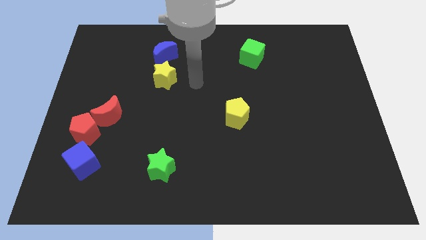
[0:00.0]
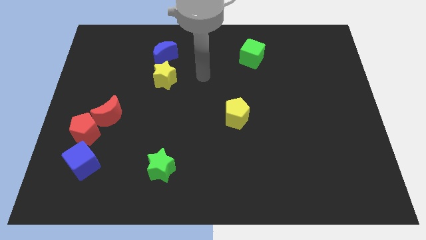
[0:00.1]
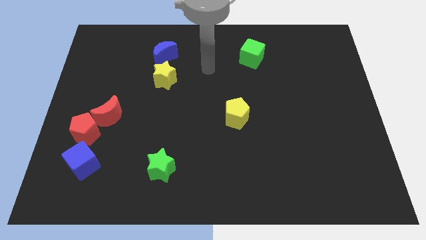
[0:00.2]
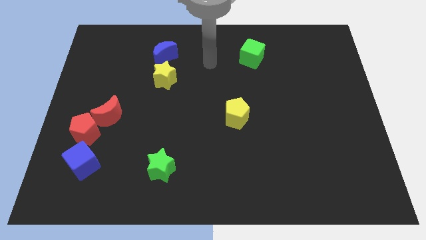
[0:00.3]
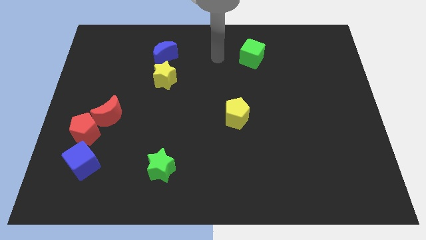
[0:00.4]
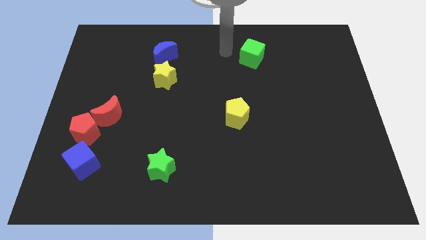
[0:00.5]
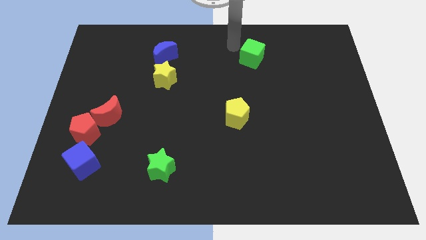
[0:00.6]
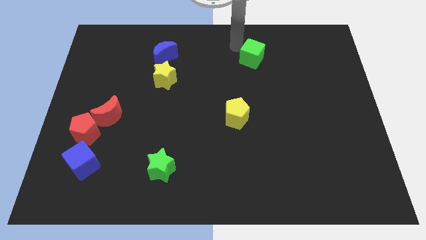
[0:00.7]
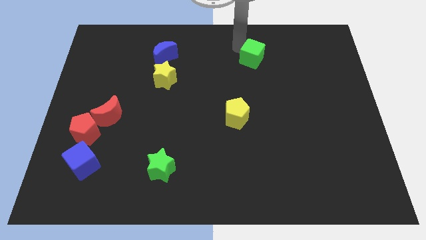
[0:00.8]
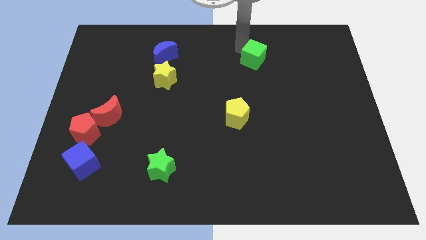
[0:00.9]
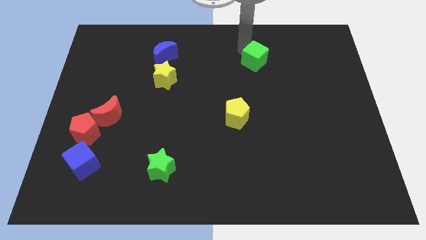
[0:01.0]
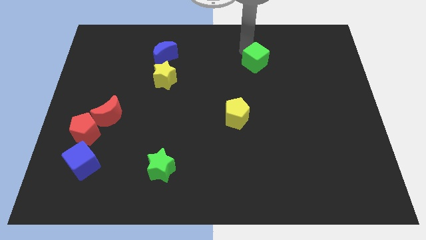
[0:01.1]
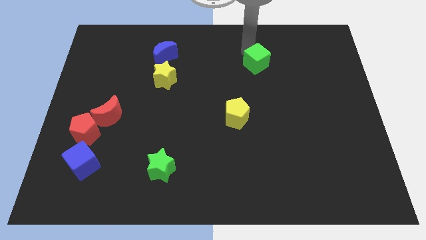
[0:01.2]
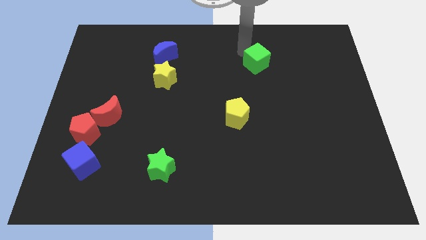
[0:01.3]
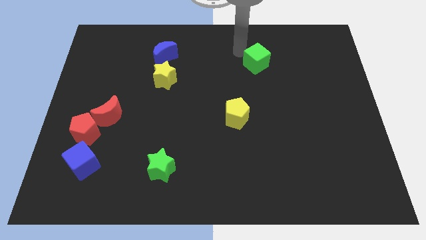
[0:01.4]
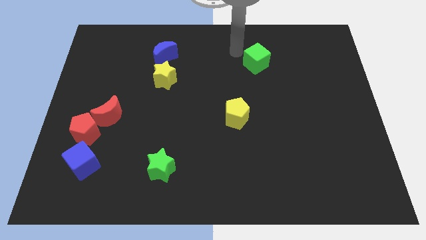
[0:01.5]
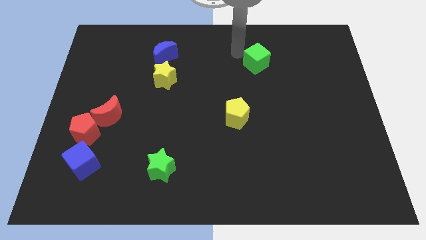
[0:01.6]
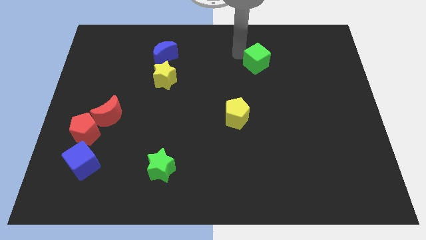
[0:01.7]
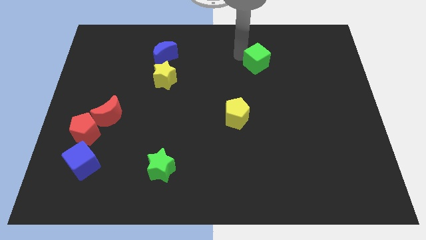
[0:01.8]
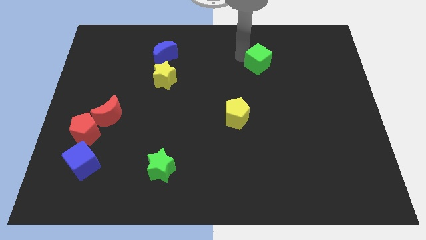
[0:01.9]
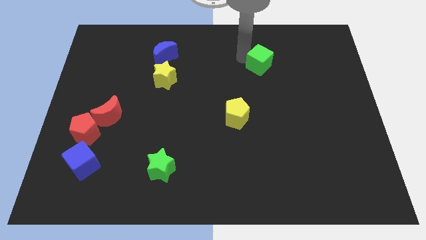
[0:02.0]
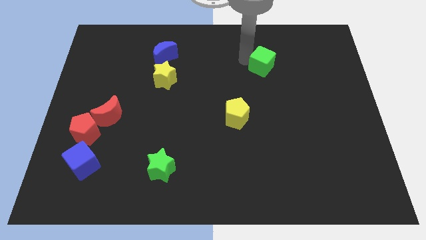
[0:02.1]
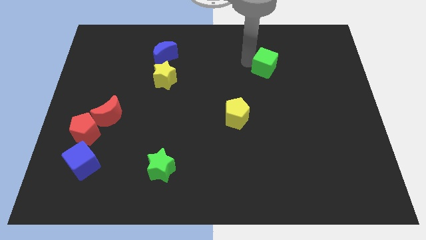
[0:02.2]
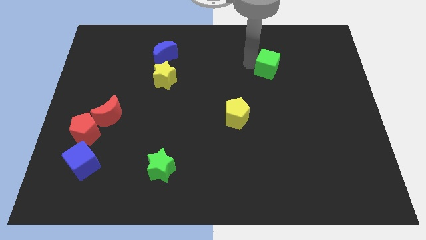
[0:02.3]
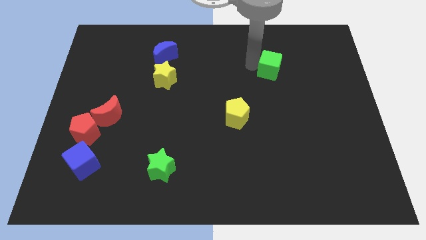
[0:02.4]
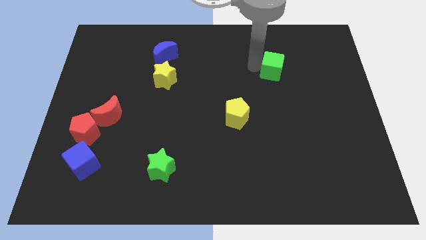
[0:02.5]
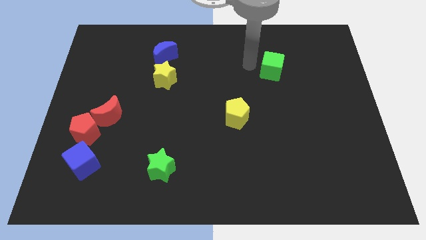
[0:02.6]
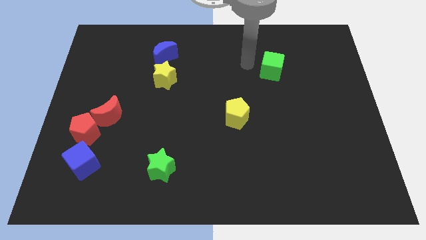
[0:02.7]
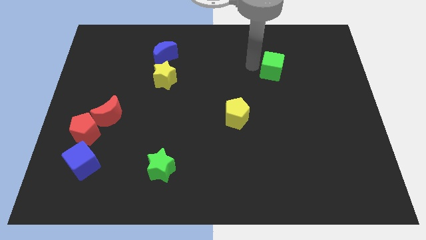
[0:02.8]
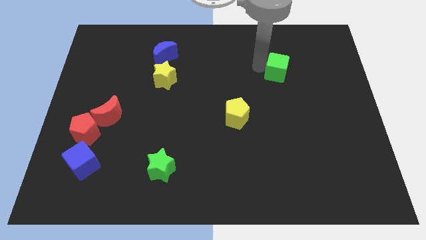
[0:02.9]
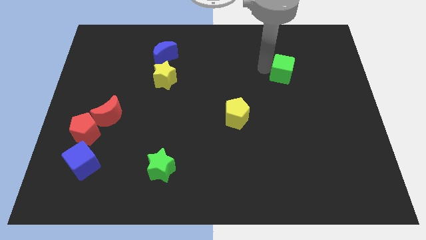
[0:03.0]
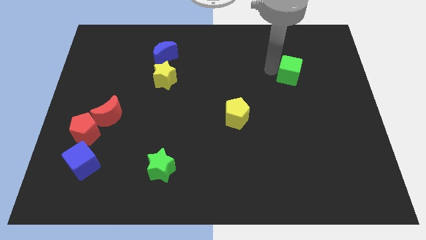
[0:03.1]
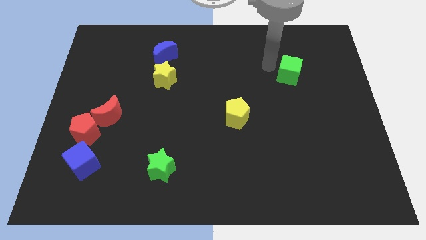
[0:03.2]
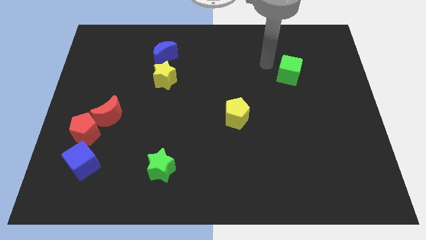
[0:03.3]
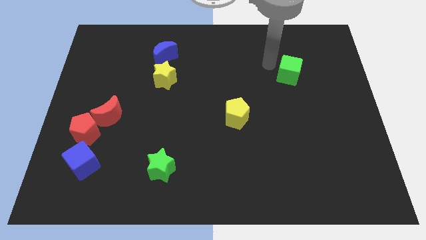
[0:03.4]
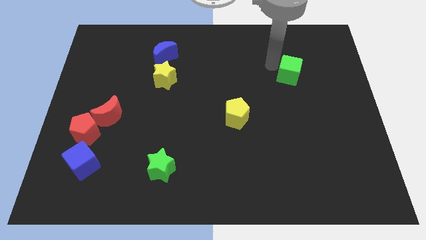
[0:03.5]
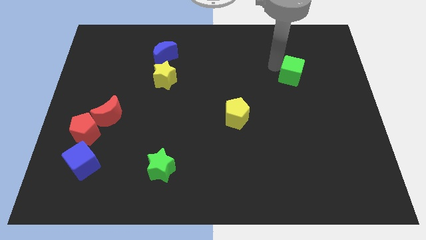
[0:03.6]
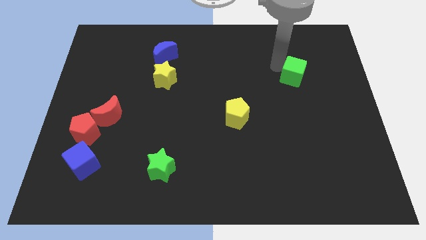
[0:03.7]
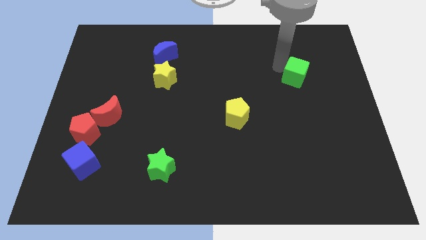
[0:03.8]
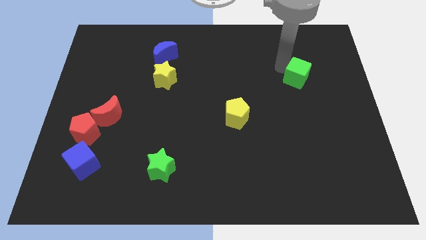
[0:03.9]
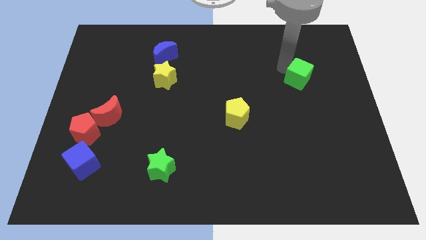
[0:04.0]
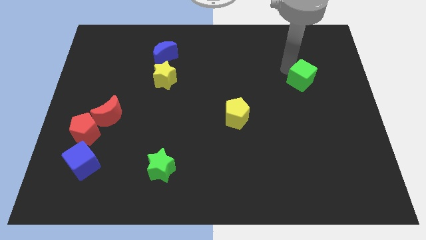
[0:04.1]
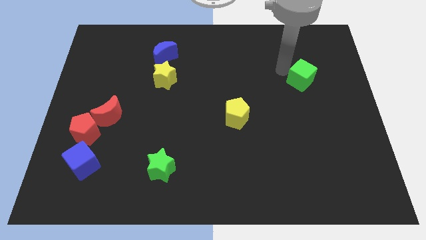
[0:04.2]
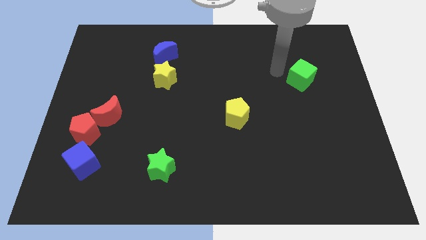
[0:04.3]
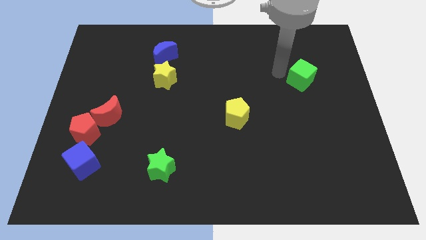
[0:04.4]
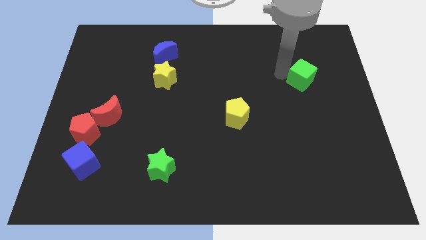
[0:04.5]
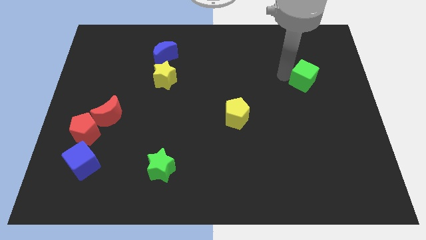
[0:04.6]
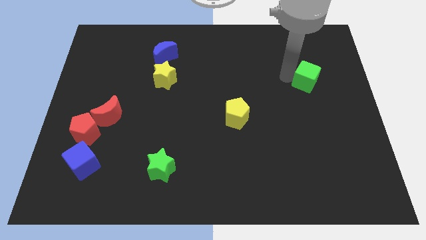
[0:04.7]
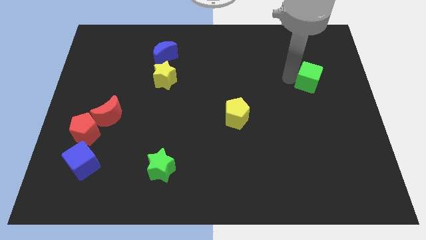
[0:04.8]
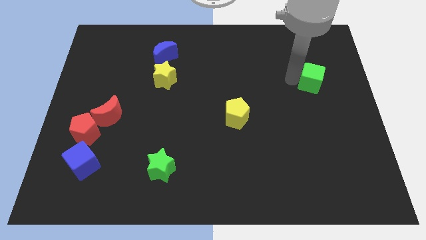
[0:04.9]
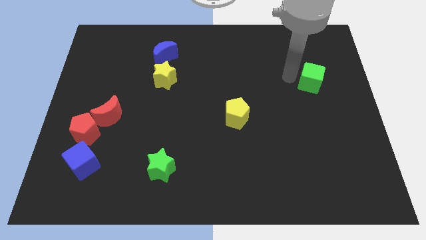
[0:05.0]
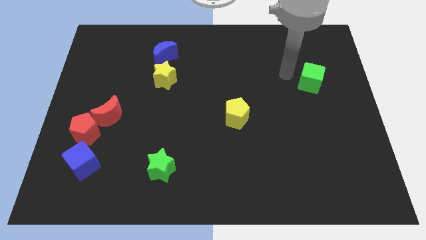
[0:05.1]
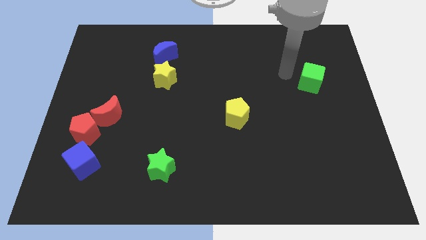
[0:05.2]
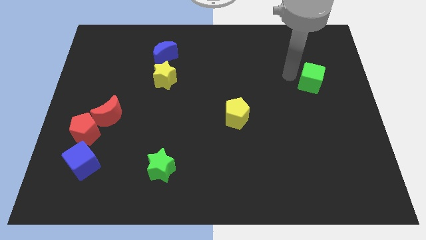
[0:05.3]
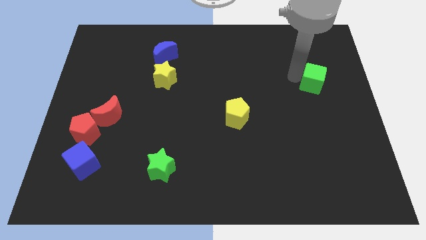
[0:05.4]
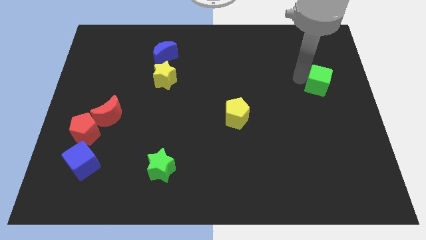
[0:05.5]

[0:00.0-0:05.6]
slide the green cube to the right side

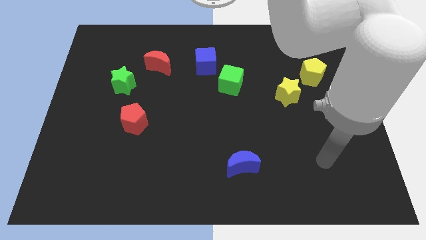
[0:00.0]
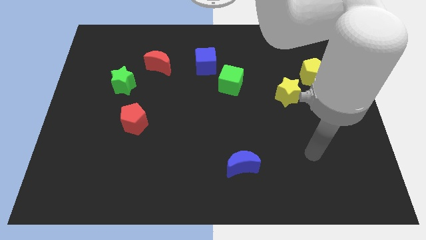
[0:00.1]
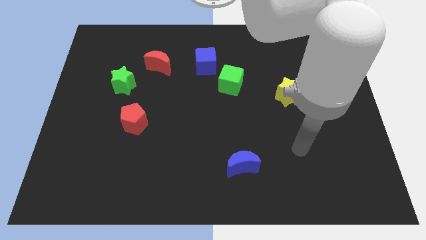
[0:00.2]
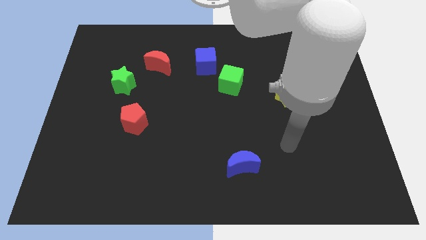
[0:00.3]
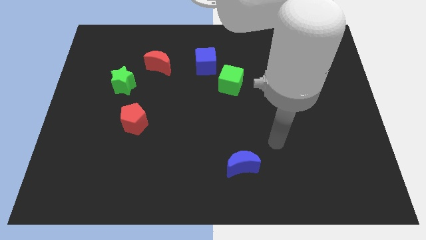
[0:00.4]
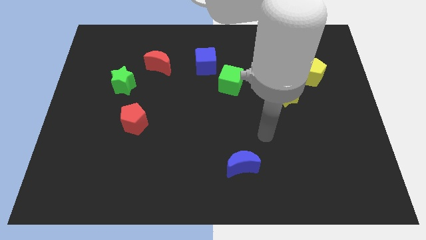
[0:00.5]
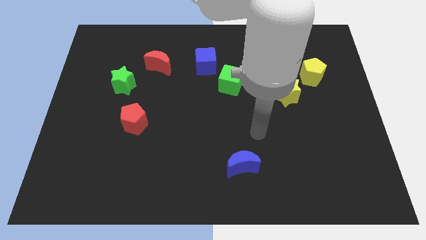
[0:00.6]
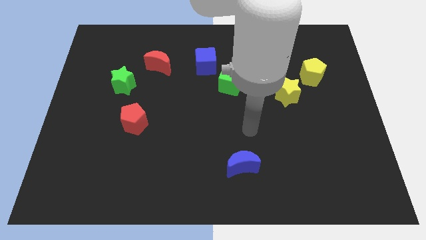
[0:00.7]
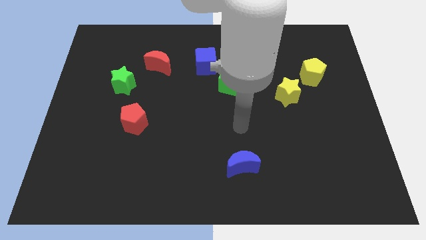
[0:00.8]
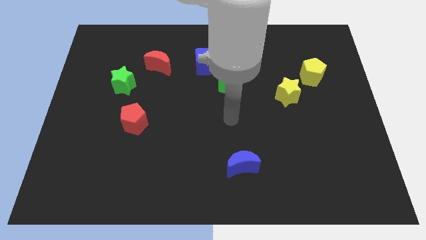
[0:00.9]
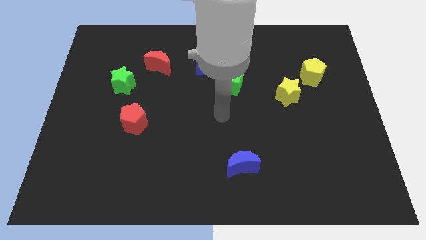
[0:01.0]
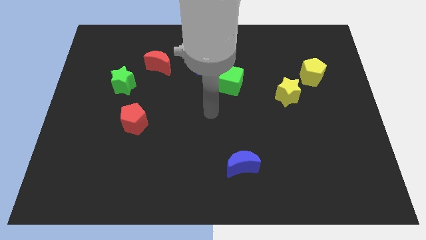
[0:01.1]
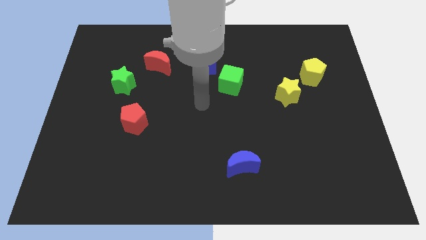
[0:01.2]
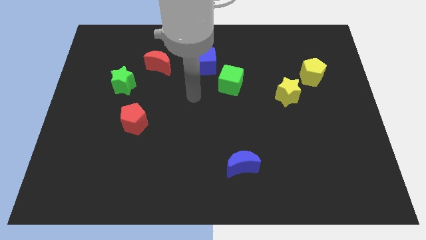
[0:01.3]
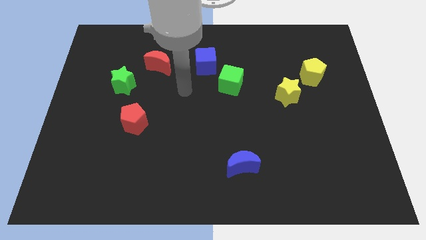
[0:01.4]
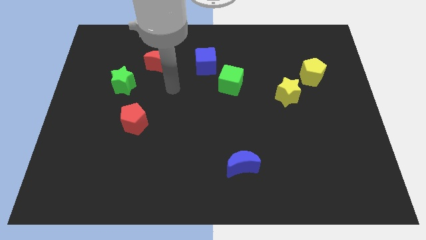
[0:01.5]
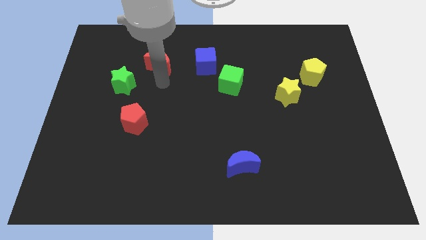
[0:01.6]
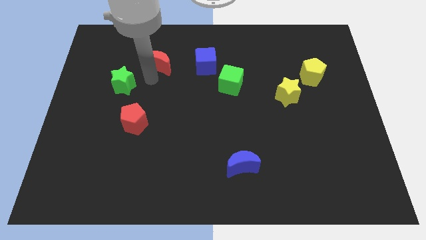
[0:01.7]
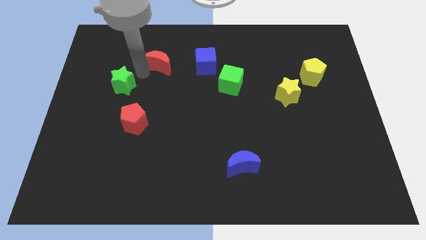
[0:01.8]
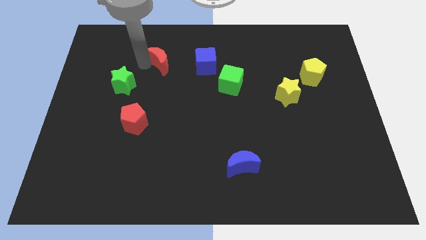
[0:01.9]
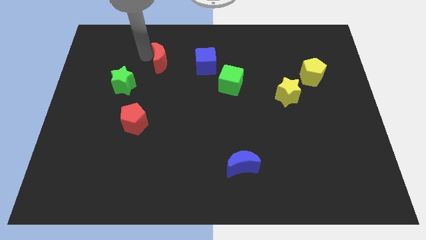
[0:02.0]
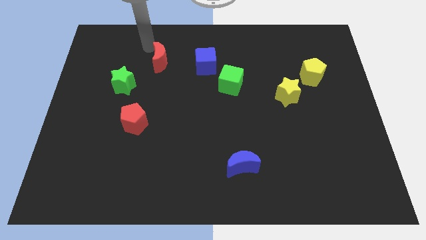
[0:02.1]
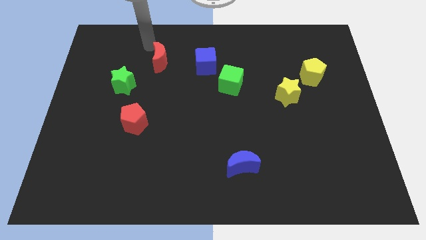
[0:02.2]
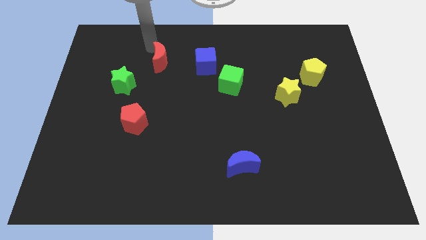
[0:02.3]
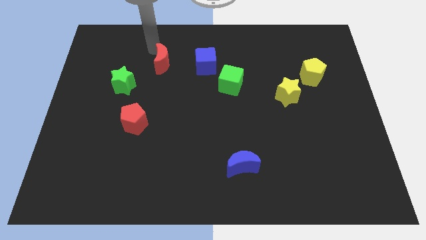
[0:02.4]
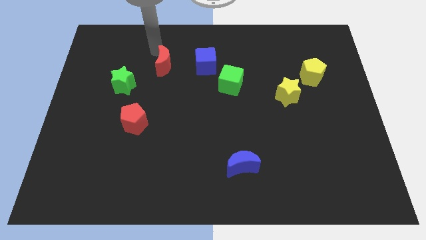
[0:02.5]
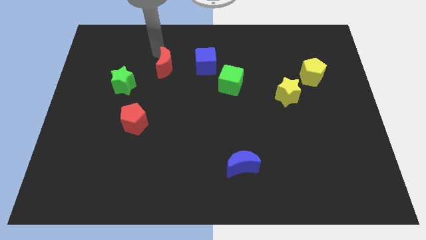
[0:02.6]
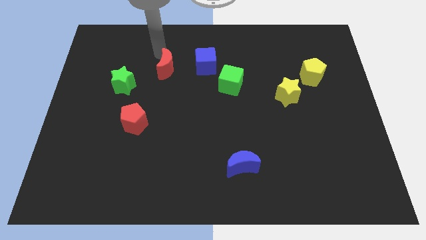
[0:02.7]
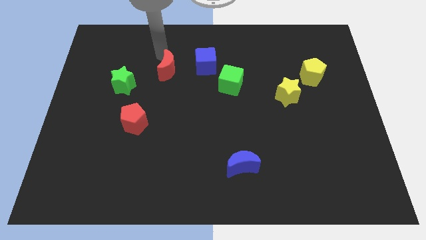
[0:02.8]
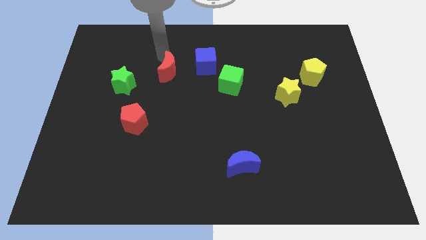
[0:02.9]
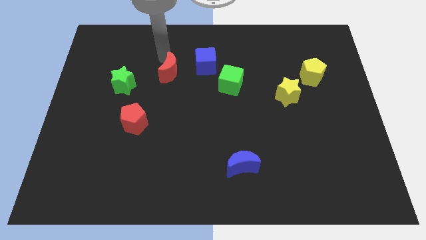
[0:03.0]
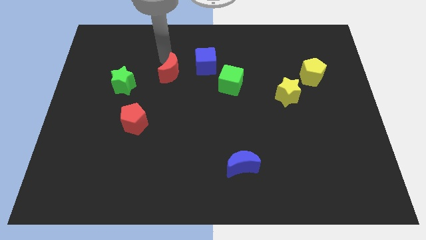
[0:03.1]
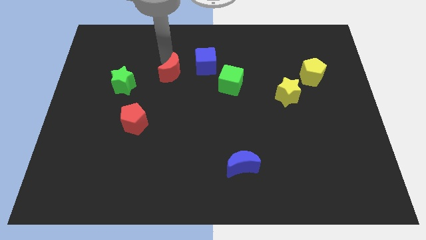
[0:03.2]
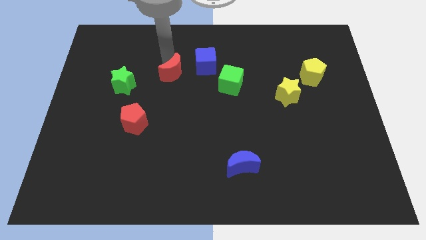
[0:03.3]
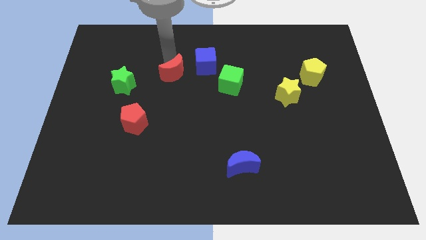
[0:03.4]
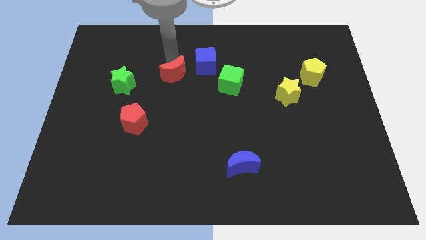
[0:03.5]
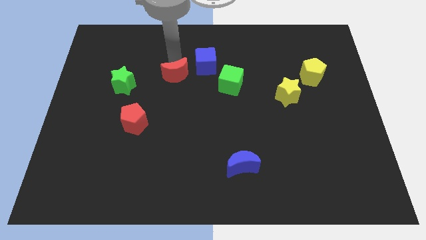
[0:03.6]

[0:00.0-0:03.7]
put the red moon to the center
